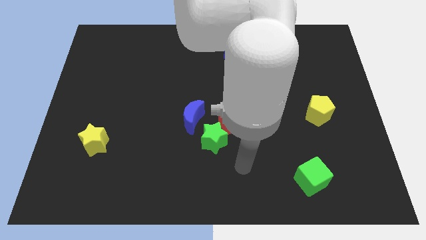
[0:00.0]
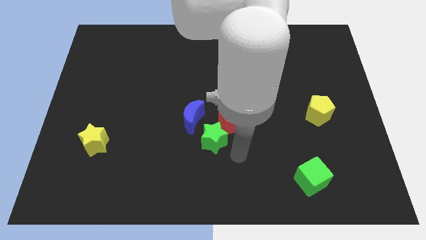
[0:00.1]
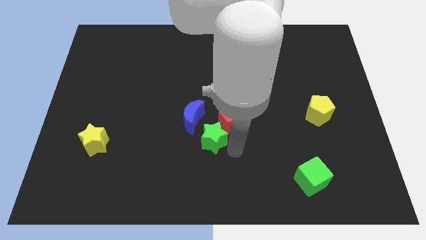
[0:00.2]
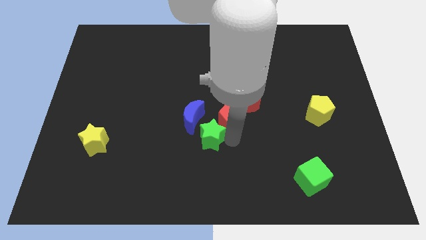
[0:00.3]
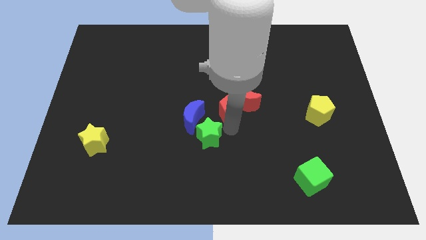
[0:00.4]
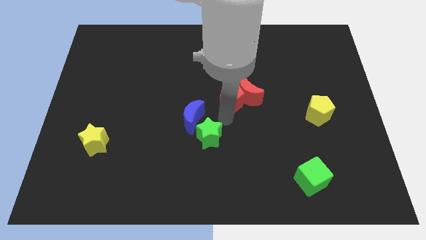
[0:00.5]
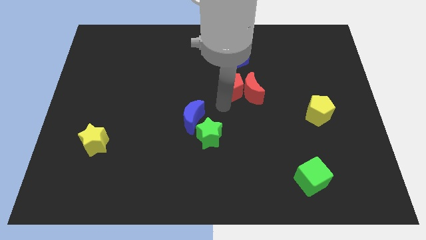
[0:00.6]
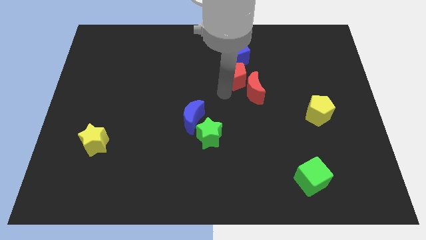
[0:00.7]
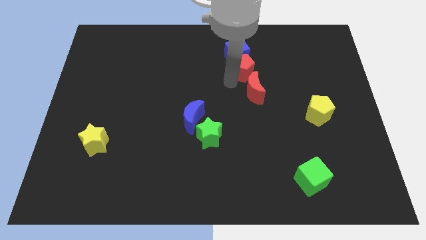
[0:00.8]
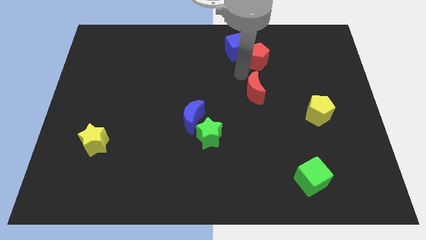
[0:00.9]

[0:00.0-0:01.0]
pull the red moon apart from the red pentagon

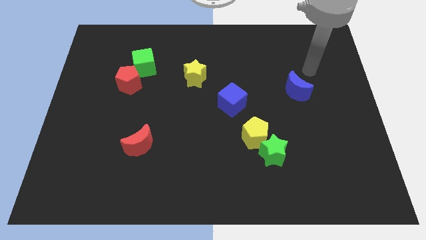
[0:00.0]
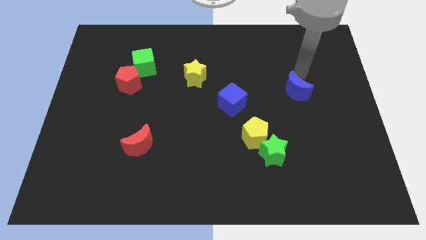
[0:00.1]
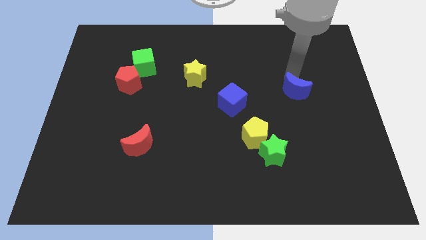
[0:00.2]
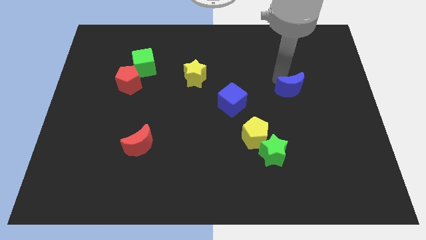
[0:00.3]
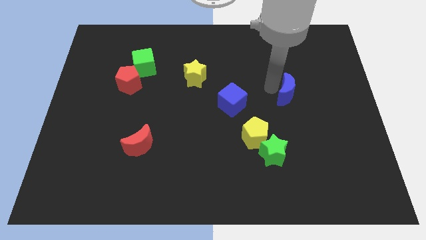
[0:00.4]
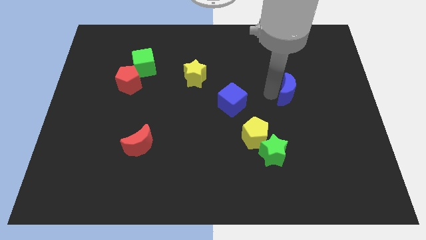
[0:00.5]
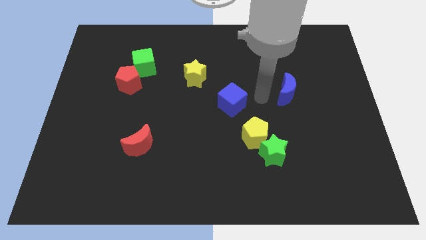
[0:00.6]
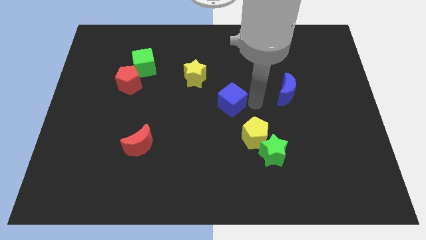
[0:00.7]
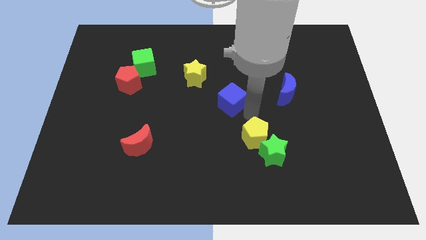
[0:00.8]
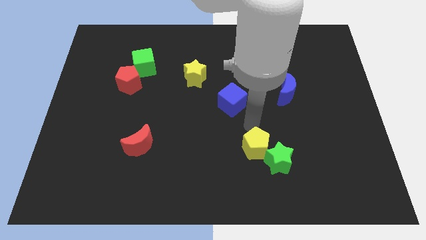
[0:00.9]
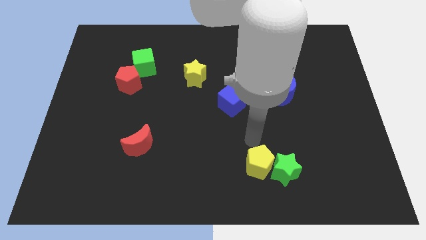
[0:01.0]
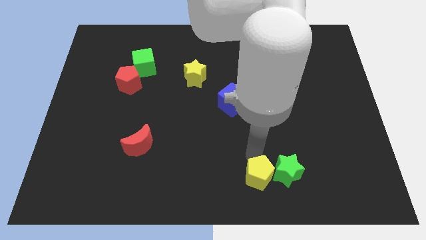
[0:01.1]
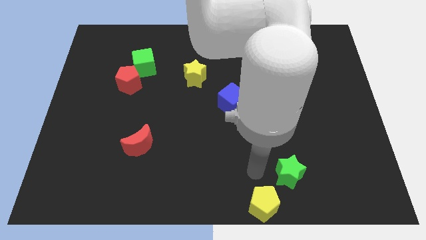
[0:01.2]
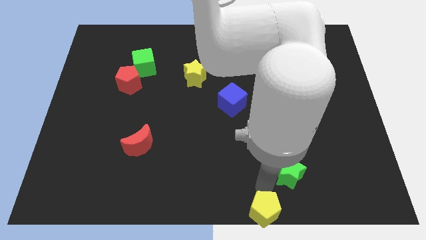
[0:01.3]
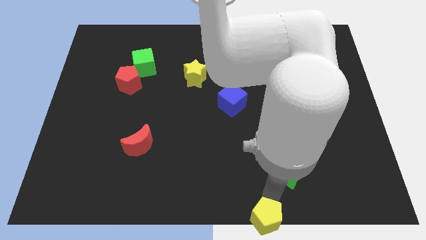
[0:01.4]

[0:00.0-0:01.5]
separate the green star from the yellow pentagon

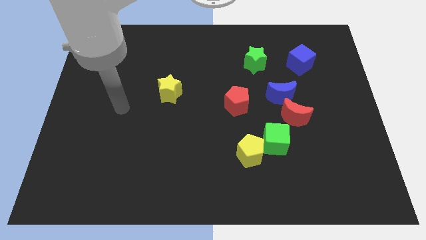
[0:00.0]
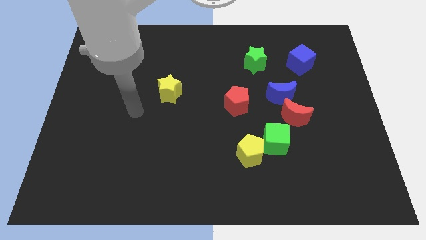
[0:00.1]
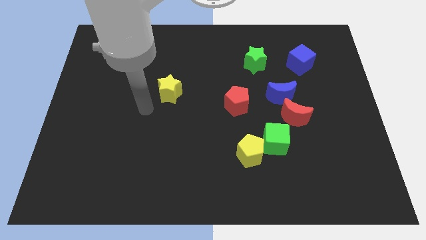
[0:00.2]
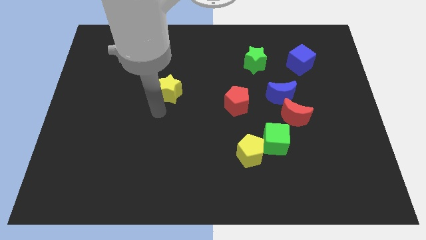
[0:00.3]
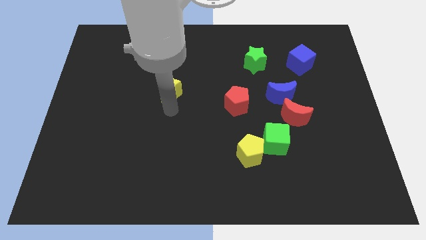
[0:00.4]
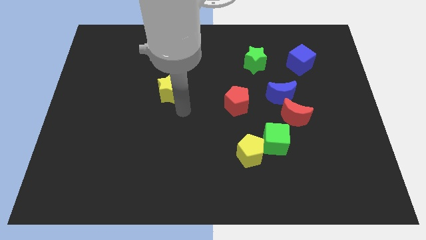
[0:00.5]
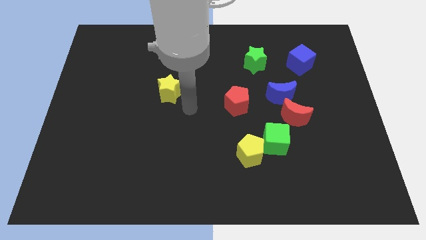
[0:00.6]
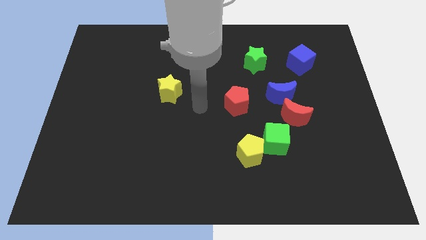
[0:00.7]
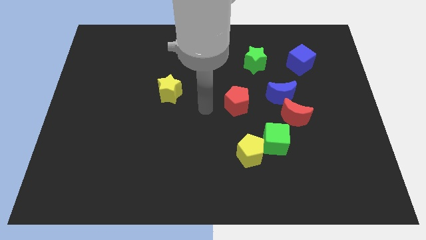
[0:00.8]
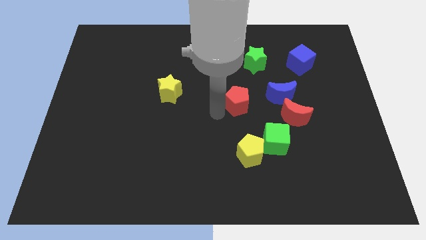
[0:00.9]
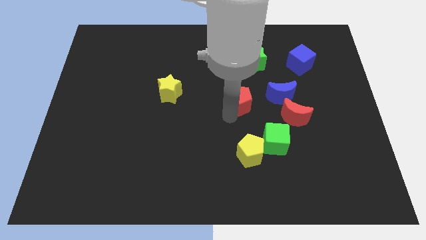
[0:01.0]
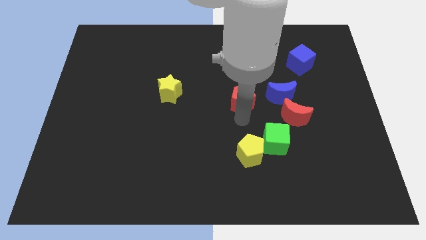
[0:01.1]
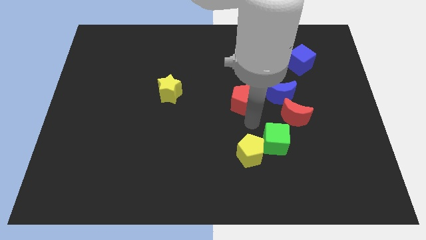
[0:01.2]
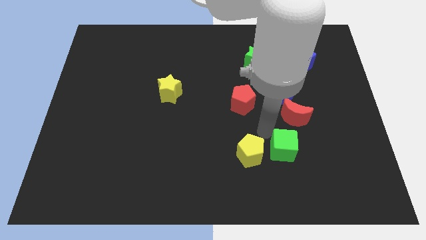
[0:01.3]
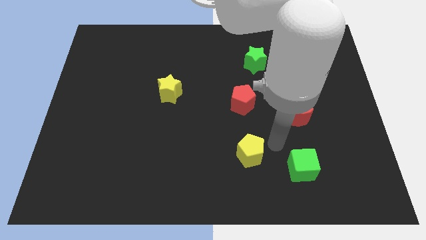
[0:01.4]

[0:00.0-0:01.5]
separate the yellow pentagon from the green cube

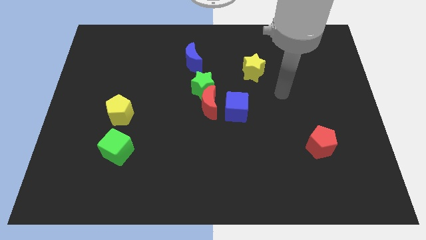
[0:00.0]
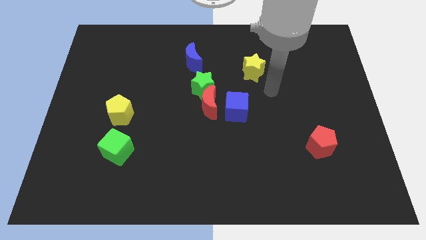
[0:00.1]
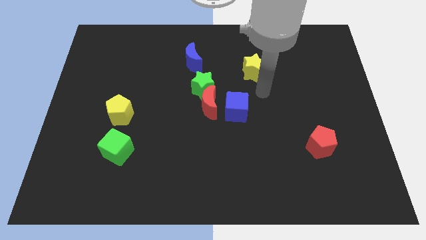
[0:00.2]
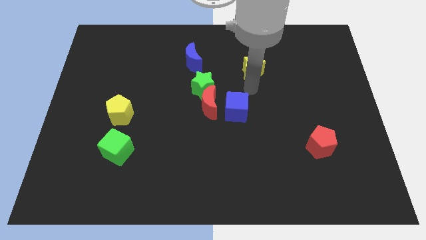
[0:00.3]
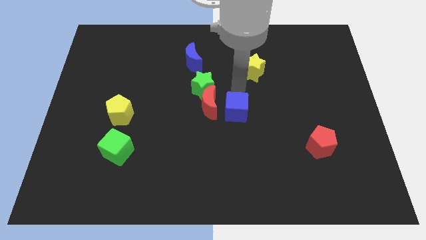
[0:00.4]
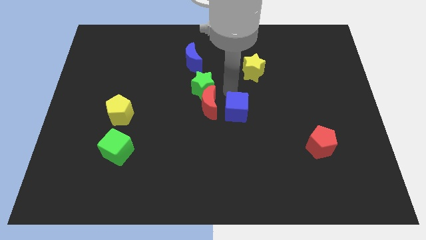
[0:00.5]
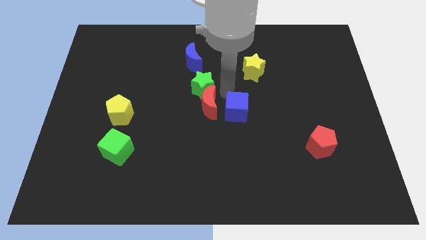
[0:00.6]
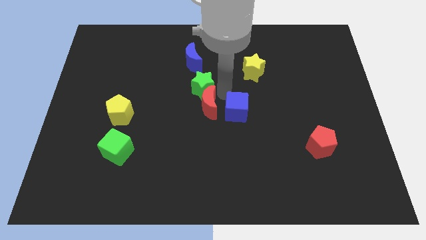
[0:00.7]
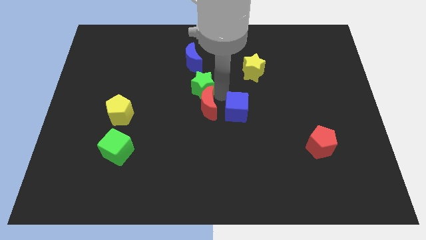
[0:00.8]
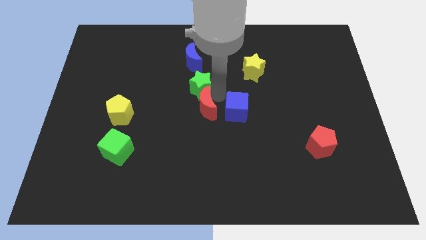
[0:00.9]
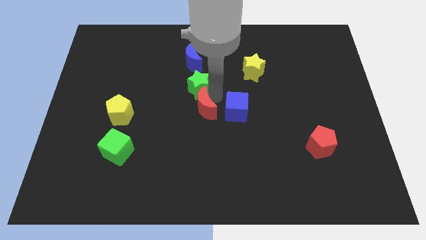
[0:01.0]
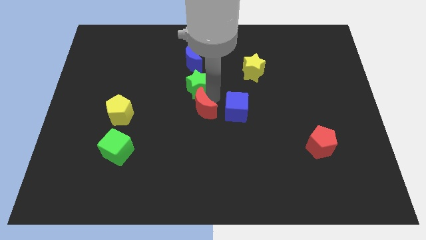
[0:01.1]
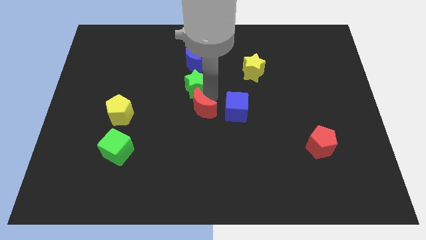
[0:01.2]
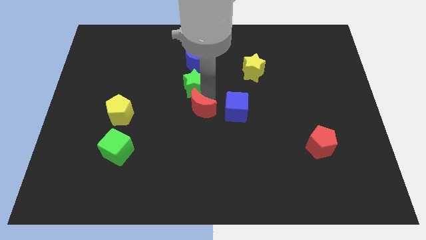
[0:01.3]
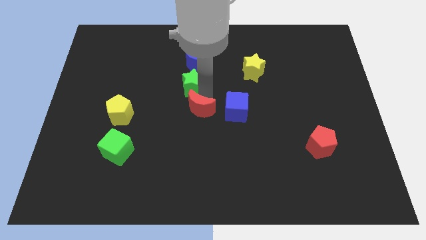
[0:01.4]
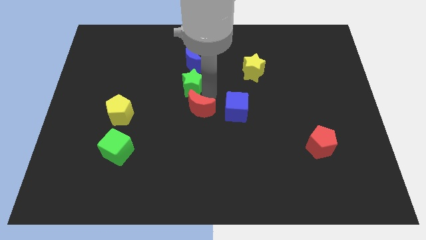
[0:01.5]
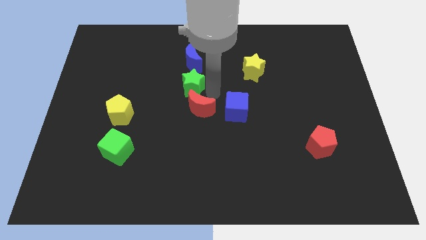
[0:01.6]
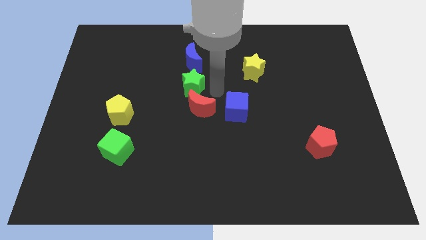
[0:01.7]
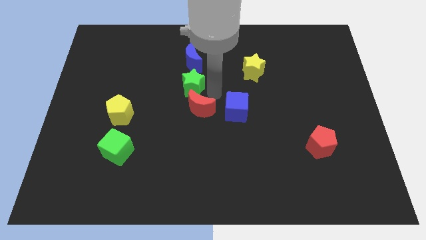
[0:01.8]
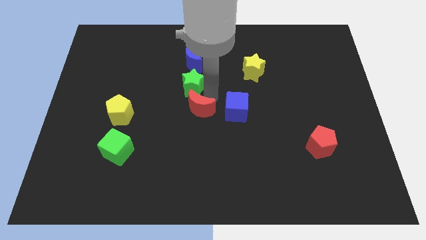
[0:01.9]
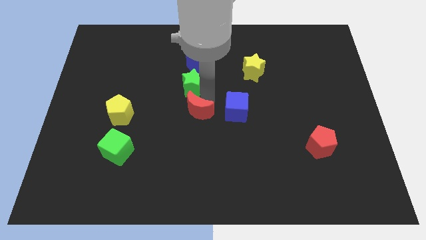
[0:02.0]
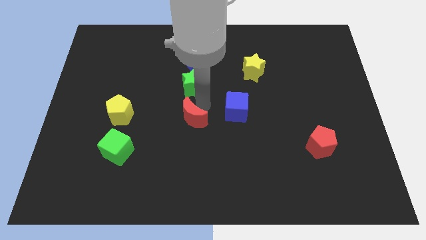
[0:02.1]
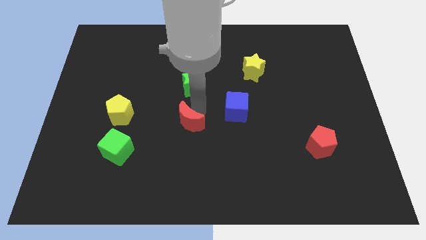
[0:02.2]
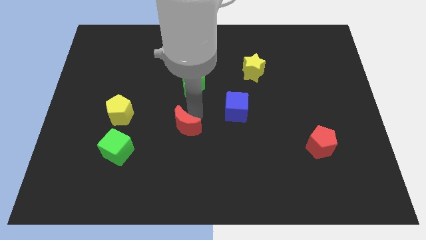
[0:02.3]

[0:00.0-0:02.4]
move the red moon away from the green star and blue cube

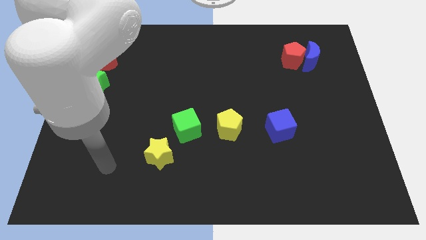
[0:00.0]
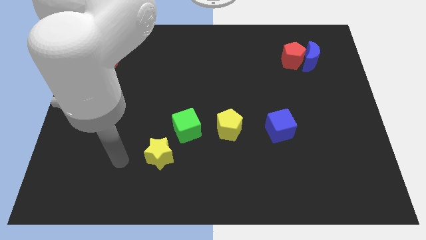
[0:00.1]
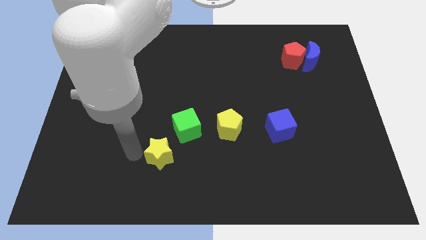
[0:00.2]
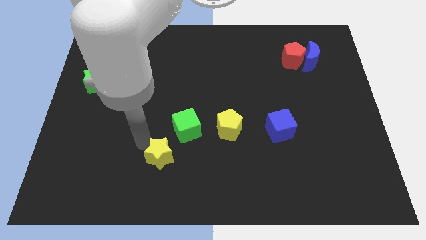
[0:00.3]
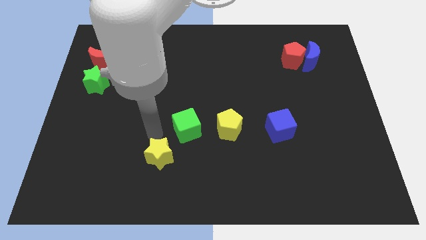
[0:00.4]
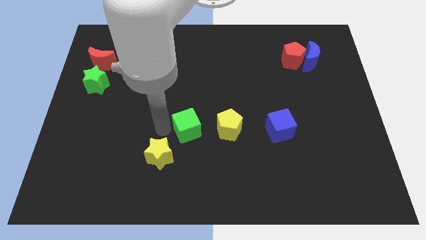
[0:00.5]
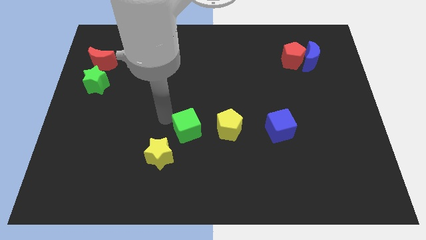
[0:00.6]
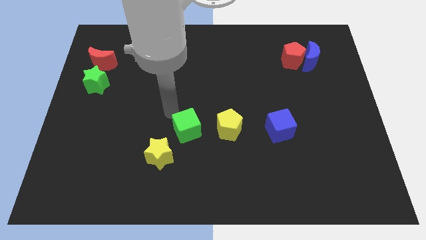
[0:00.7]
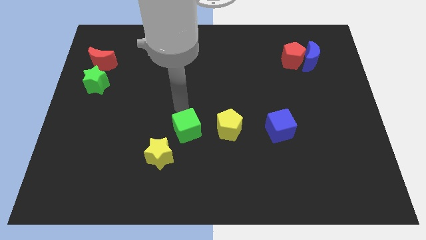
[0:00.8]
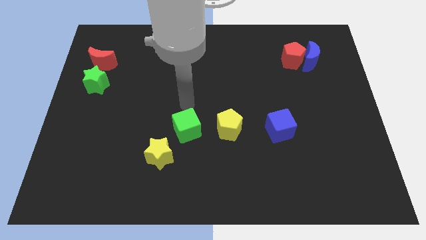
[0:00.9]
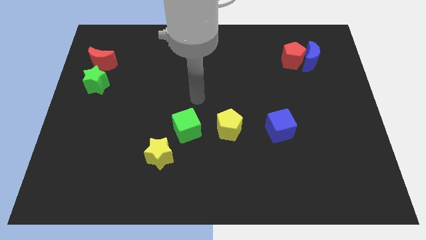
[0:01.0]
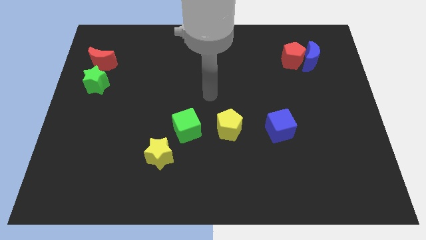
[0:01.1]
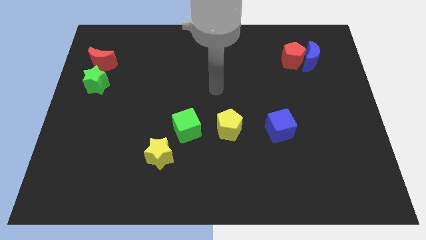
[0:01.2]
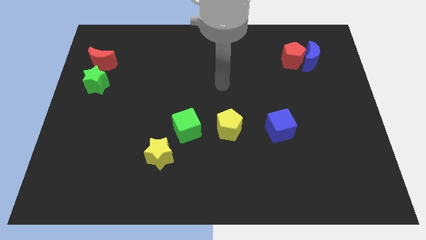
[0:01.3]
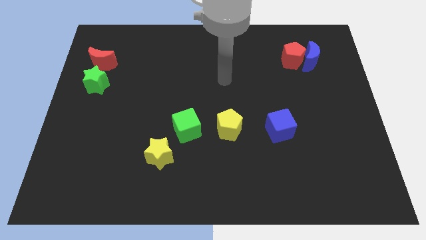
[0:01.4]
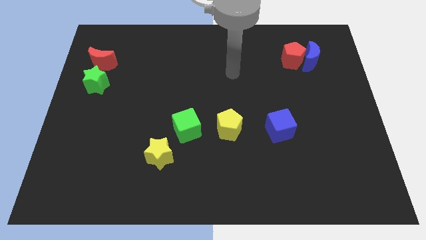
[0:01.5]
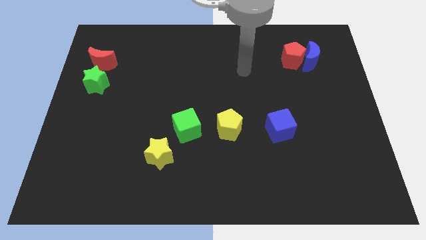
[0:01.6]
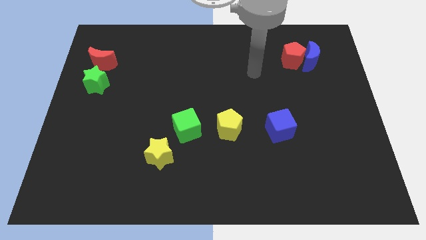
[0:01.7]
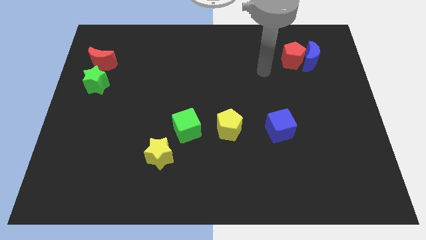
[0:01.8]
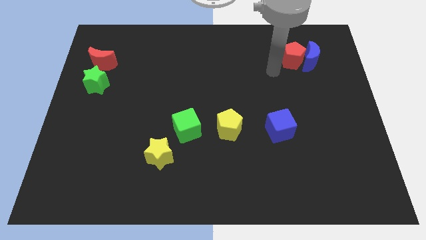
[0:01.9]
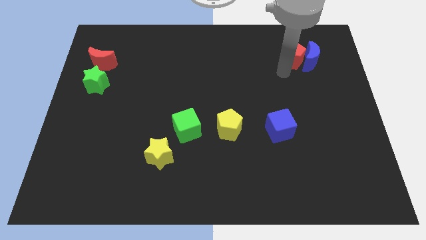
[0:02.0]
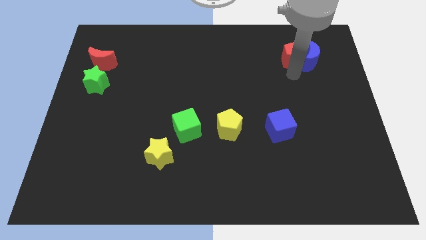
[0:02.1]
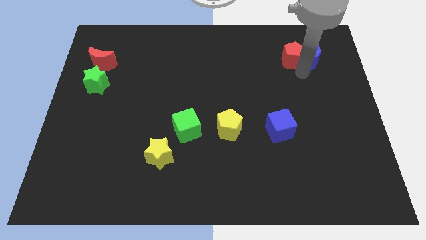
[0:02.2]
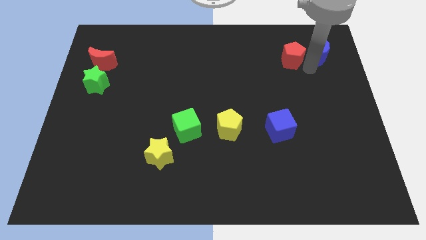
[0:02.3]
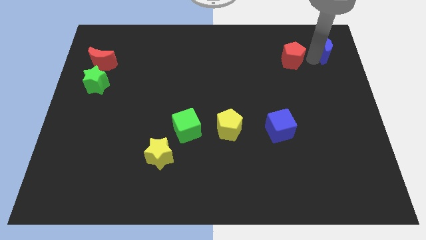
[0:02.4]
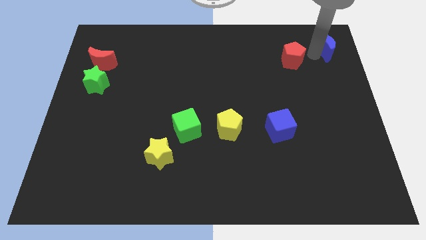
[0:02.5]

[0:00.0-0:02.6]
pull the red pentagon apart from the blue moon

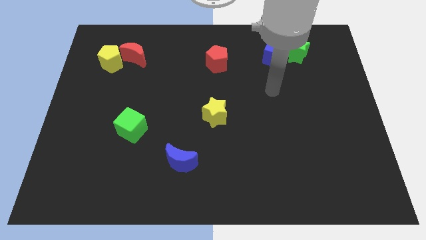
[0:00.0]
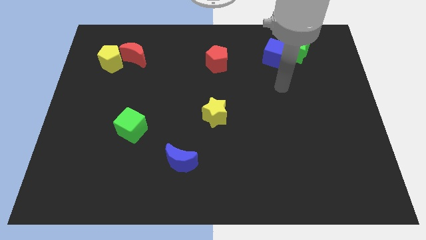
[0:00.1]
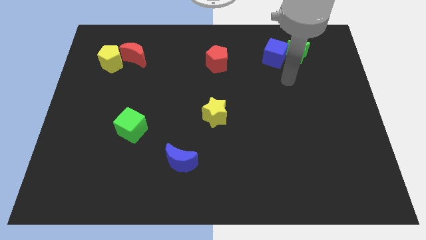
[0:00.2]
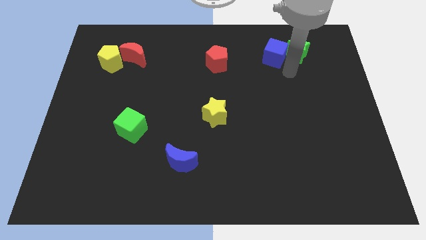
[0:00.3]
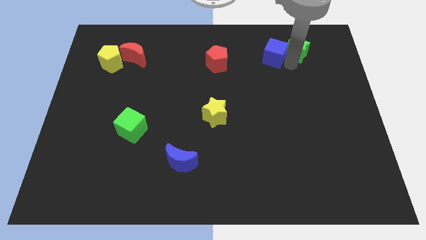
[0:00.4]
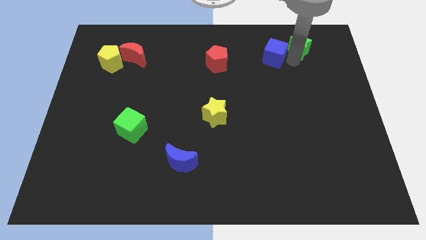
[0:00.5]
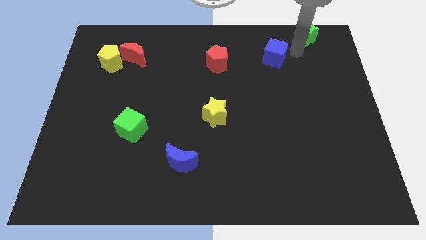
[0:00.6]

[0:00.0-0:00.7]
move the blue cube away from the green star
